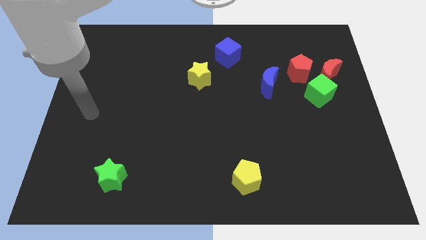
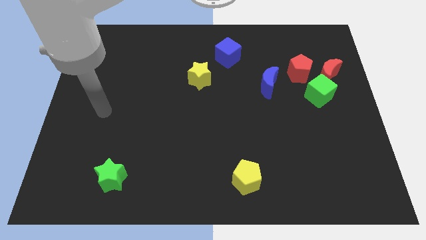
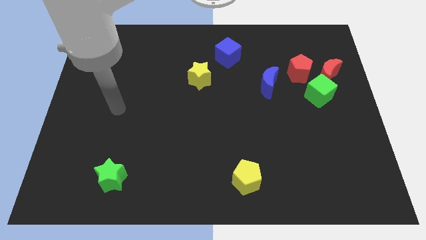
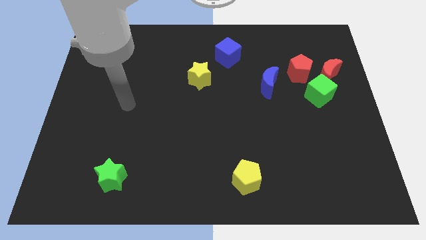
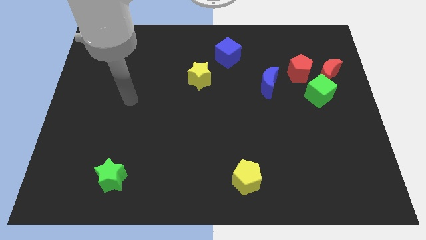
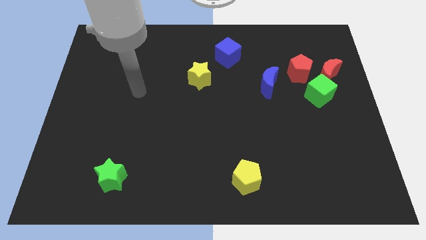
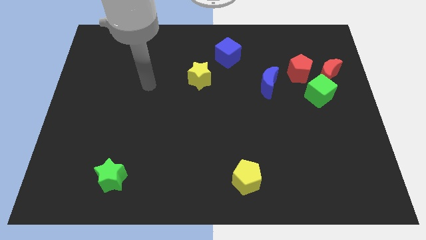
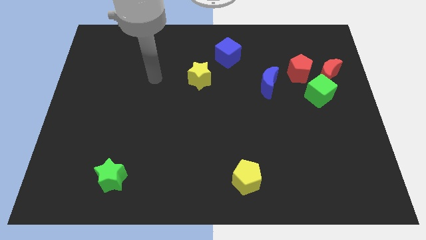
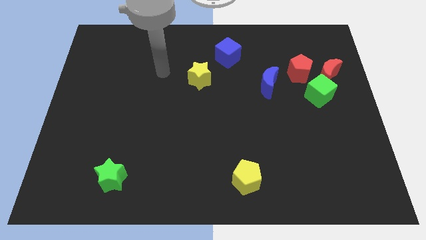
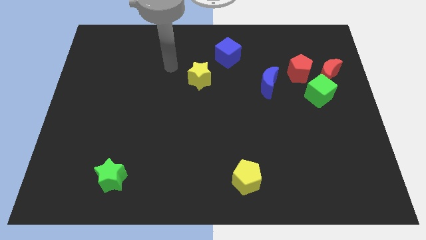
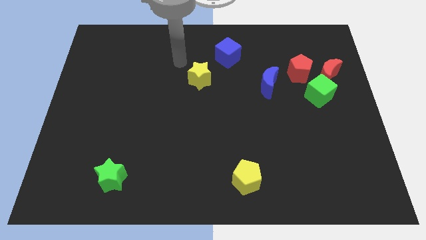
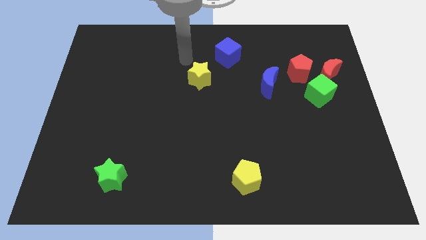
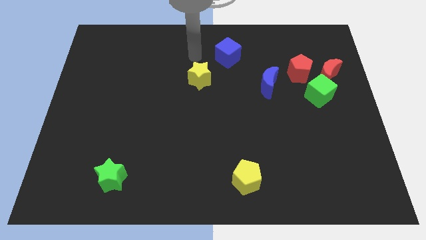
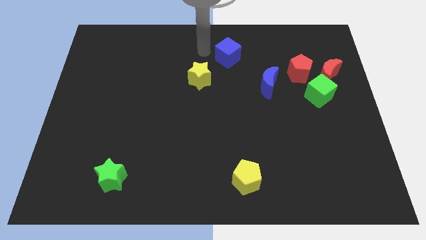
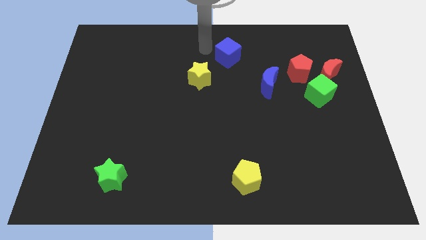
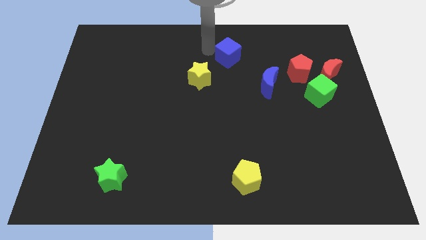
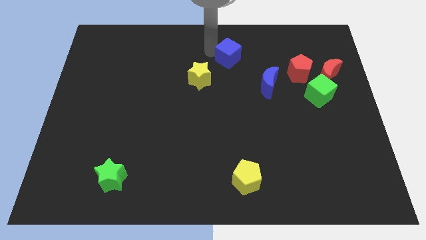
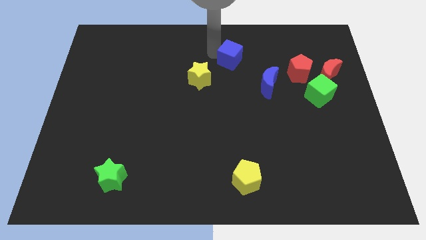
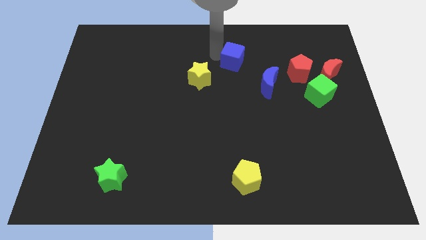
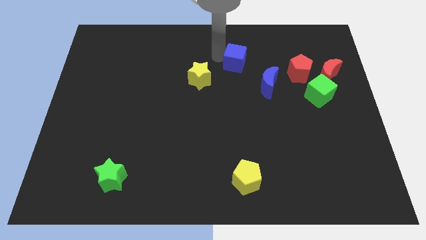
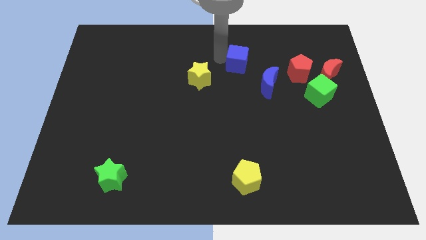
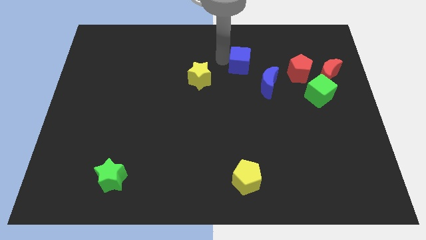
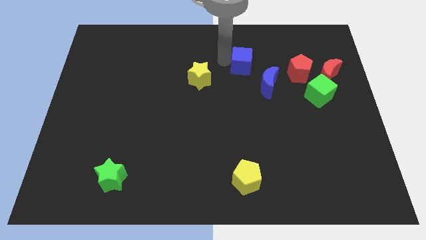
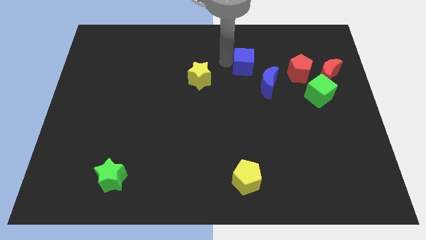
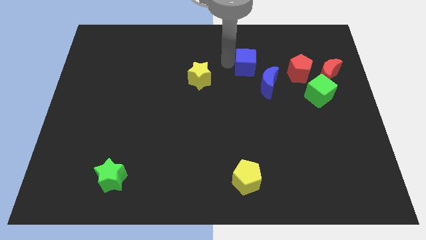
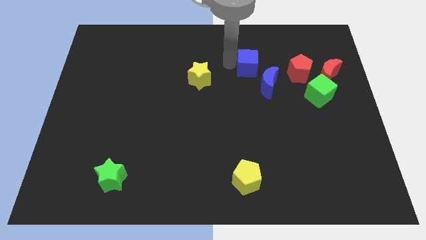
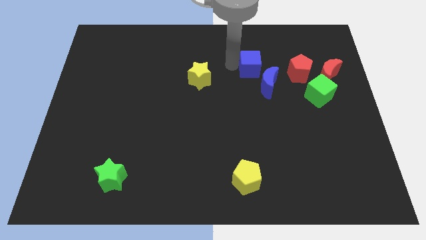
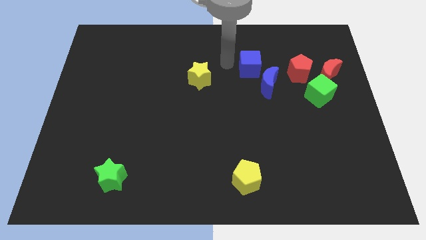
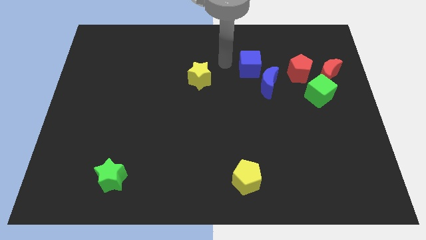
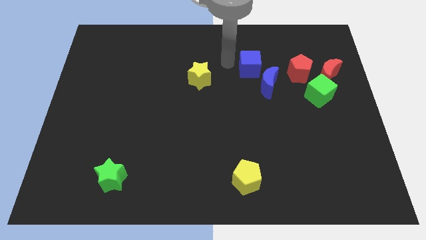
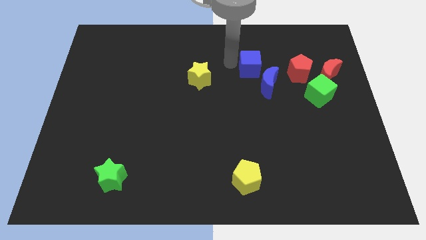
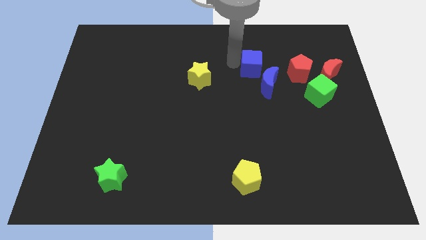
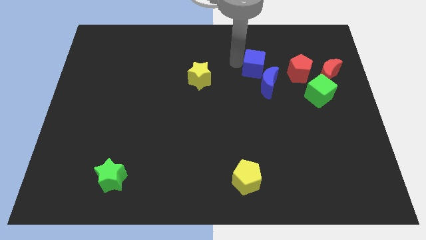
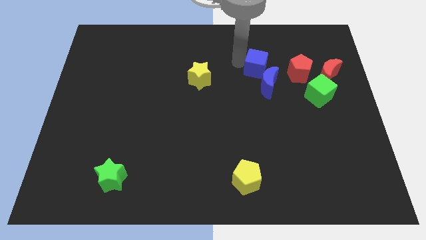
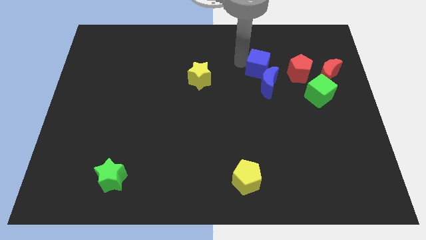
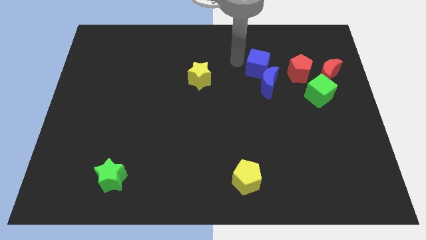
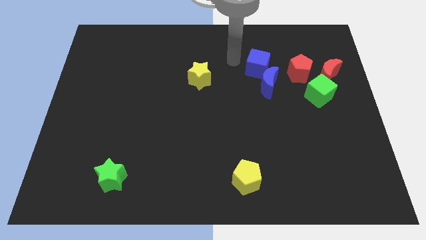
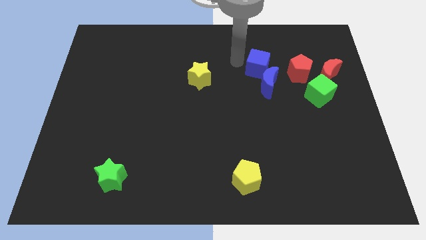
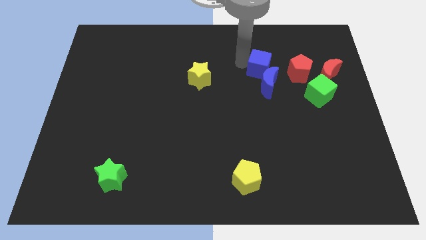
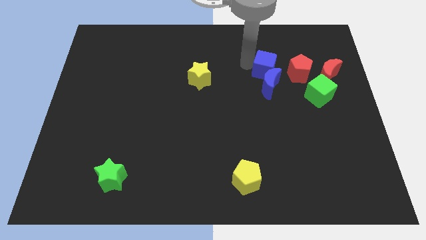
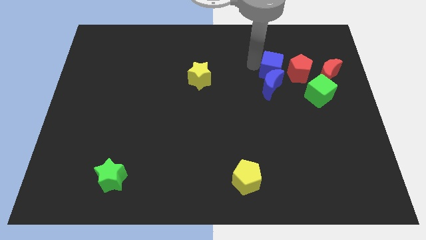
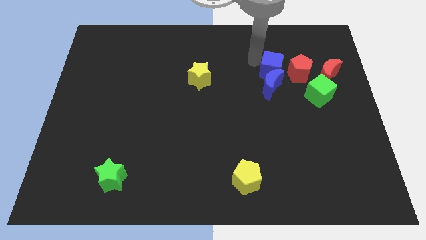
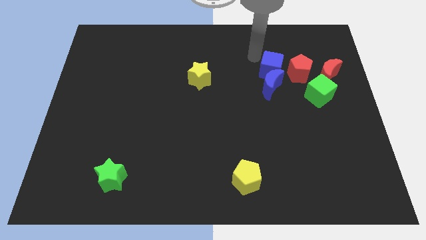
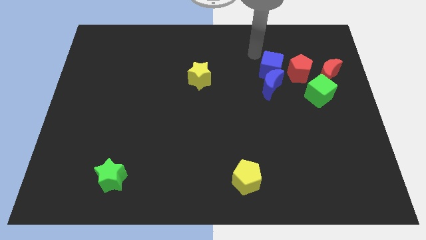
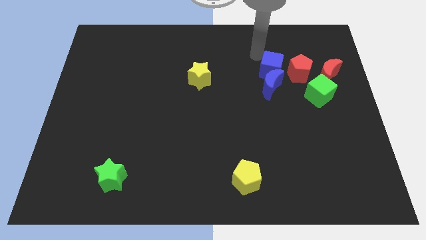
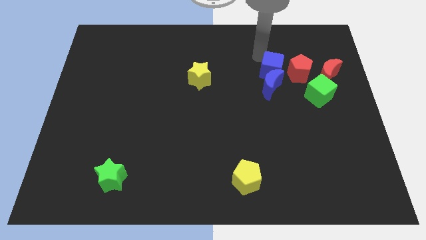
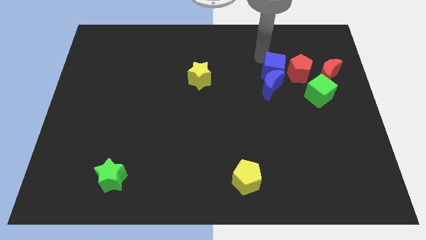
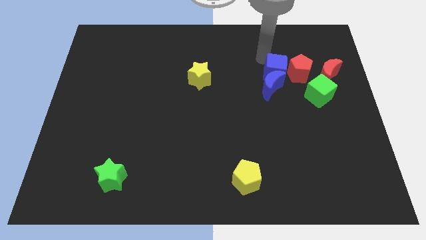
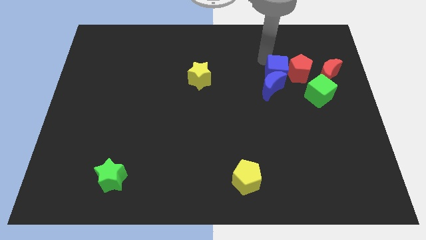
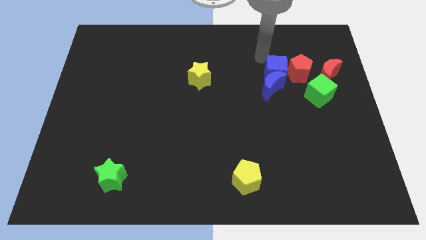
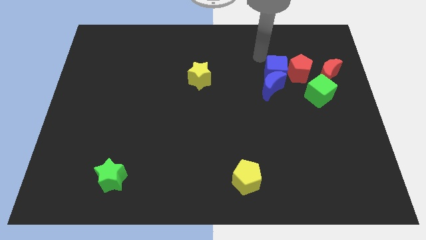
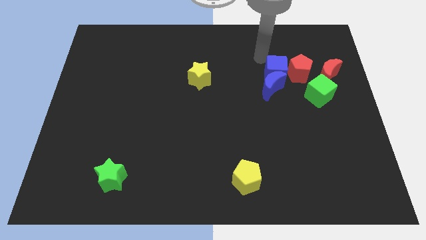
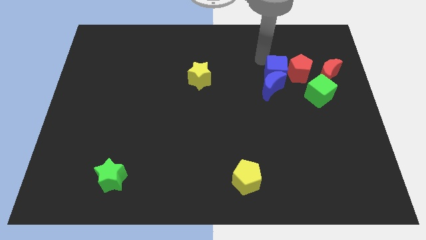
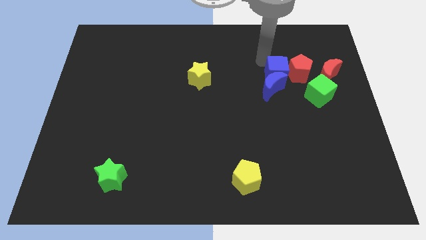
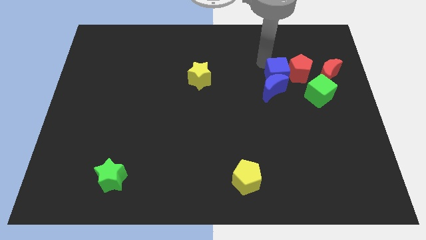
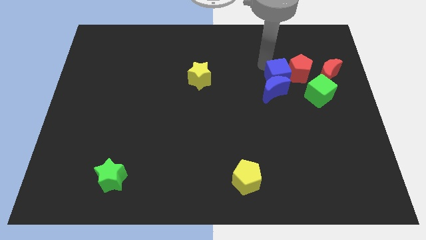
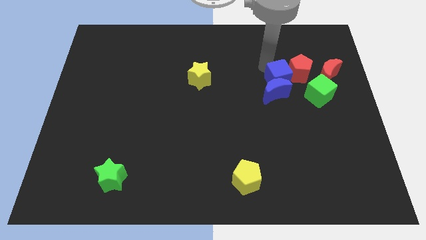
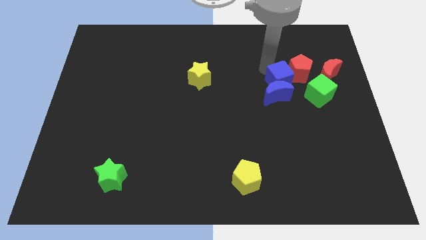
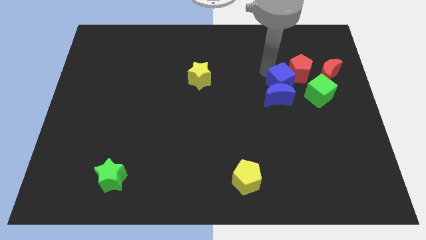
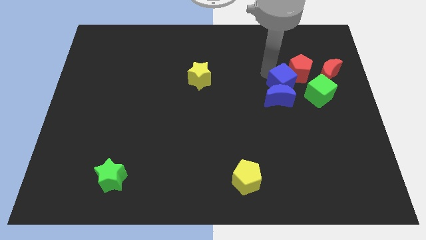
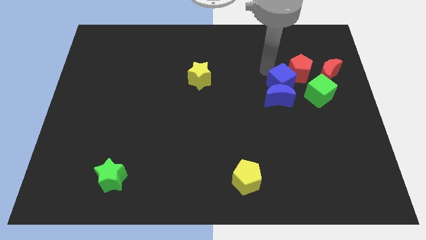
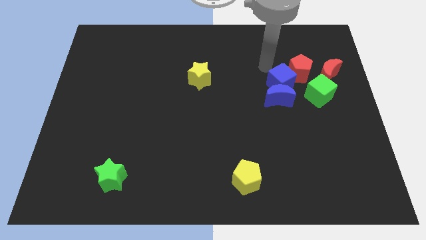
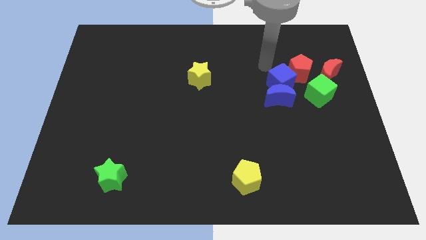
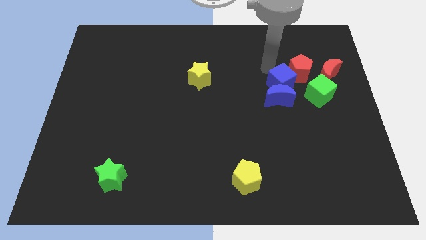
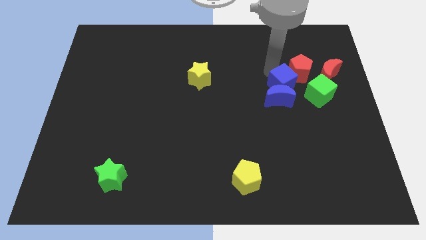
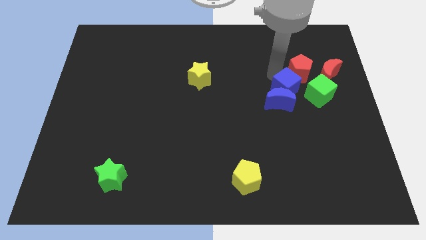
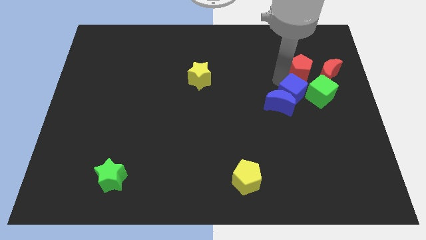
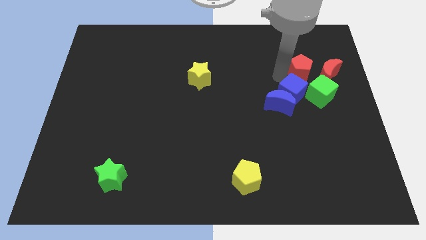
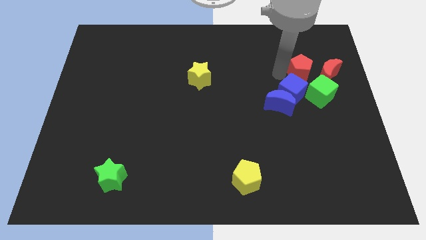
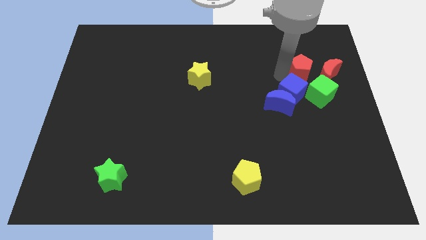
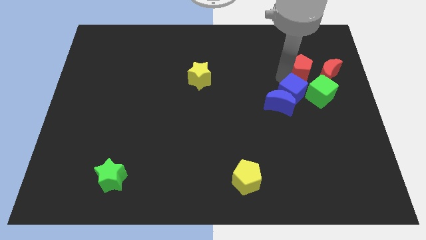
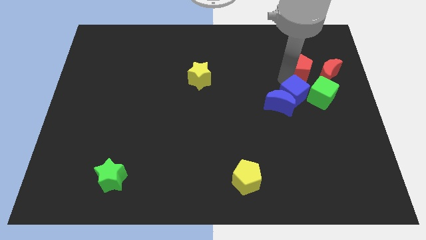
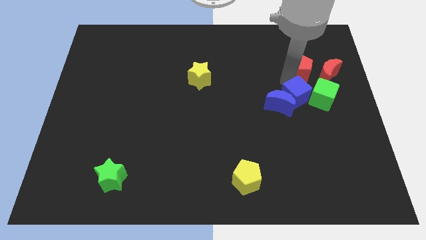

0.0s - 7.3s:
put the blue cube diagonally down and to the left of the green cube

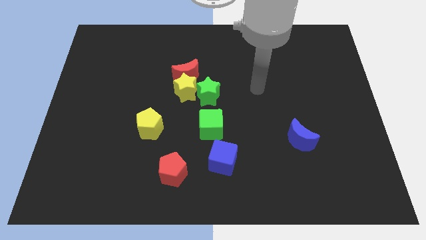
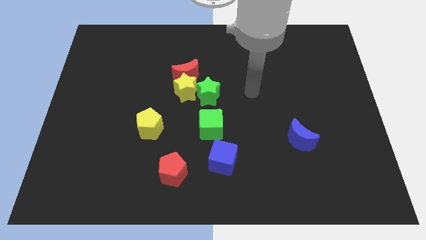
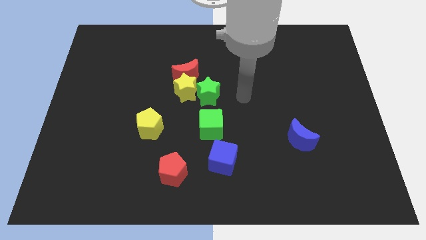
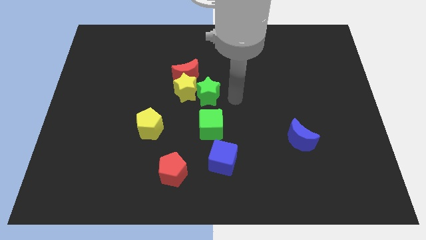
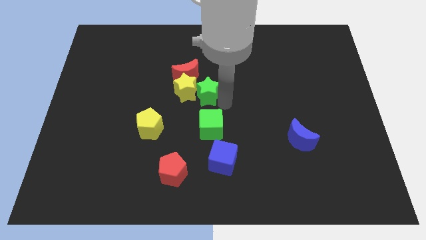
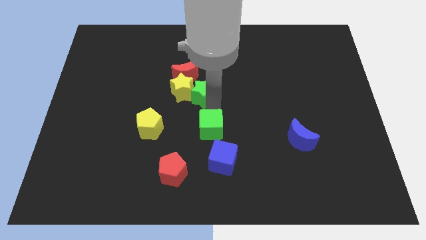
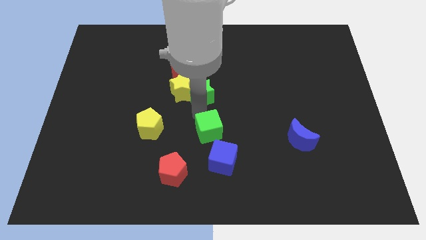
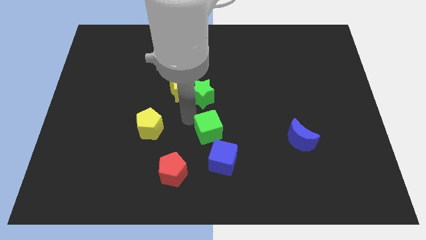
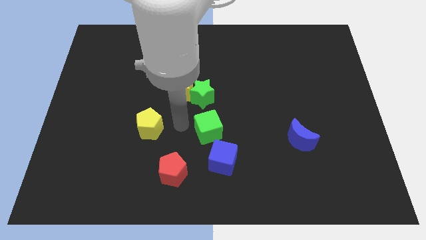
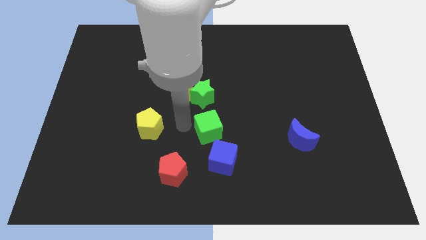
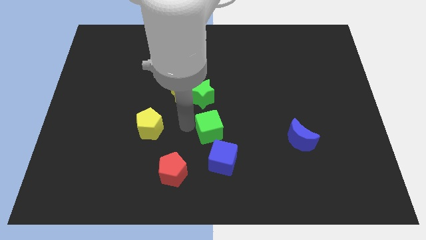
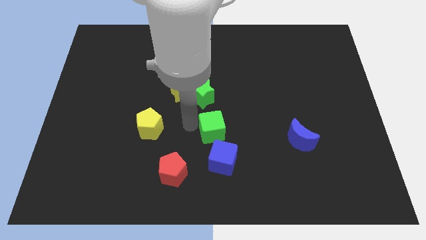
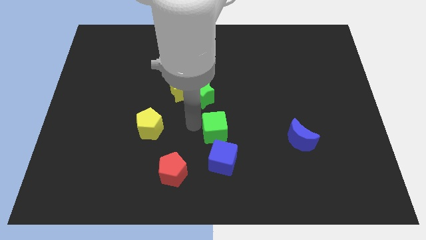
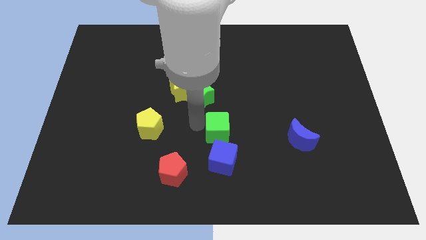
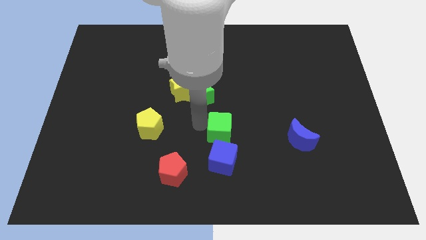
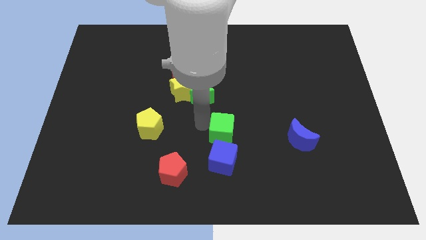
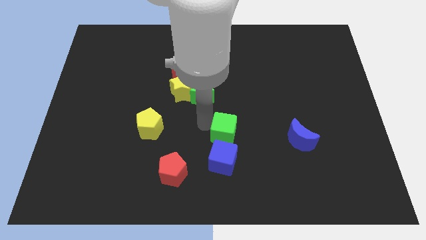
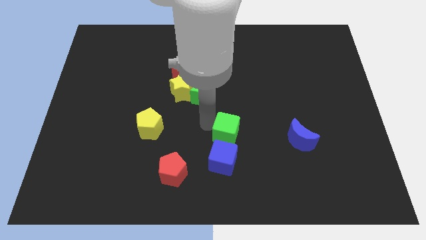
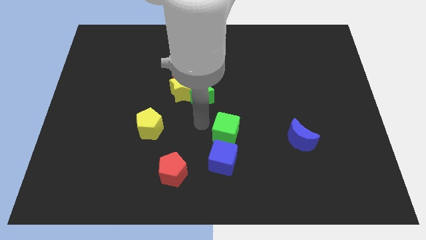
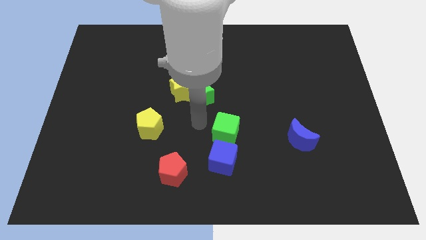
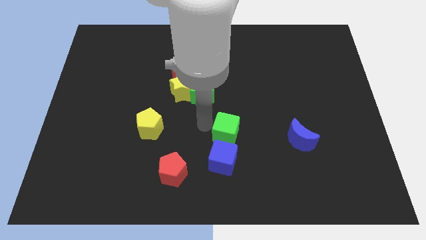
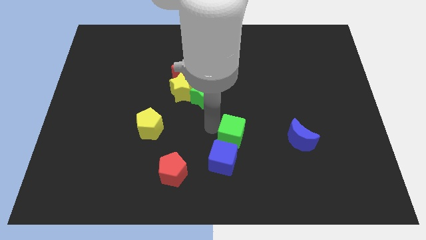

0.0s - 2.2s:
put the green cube just left of the blue moon
